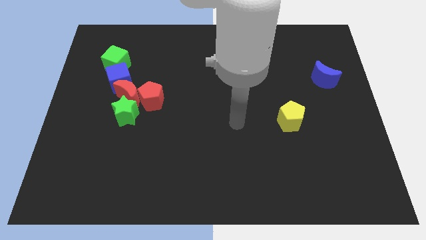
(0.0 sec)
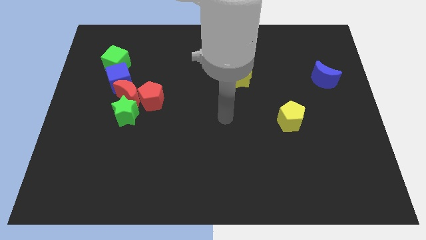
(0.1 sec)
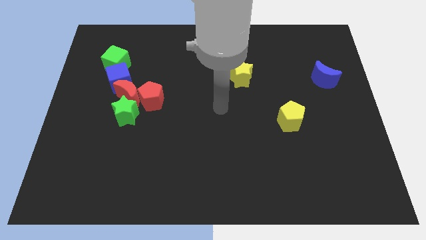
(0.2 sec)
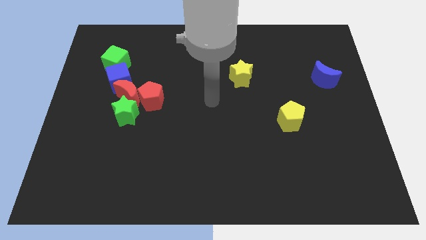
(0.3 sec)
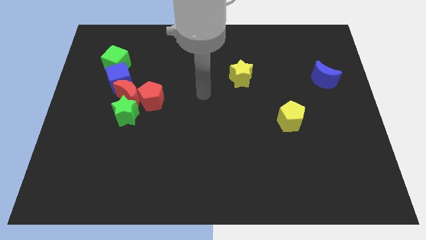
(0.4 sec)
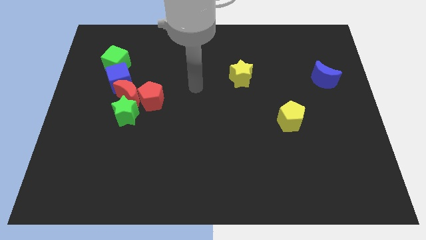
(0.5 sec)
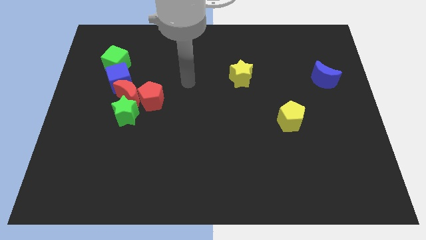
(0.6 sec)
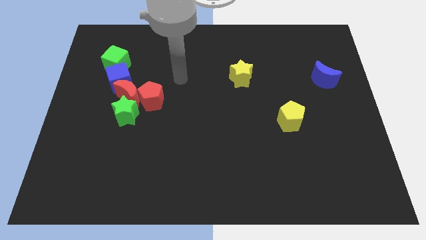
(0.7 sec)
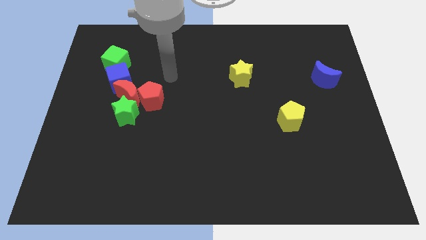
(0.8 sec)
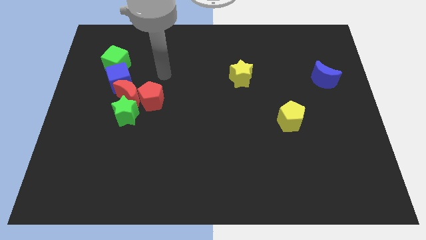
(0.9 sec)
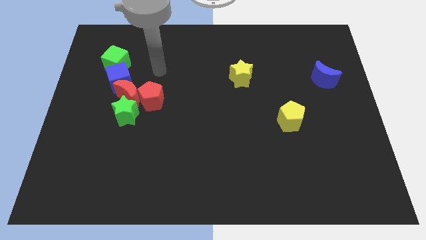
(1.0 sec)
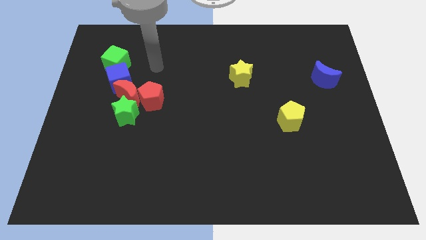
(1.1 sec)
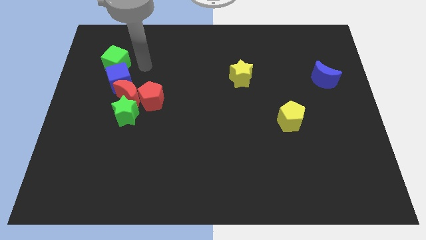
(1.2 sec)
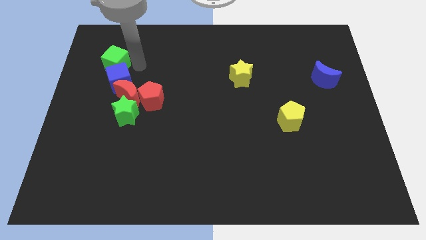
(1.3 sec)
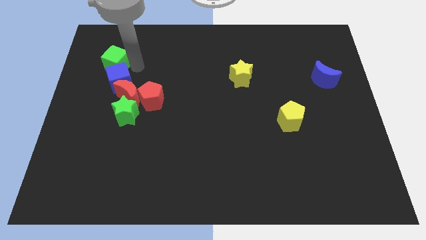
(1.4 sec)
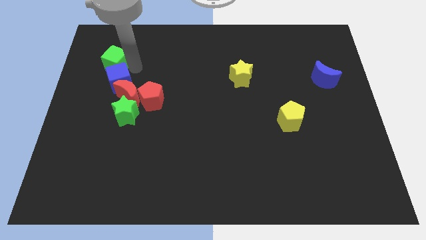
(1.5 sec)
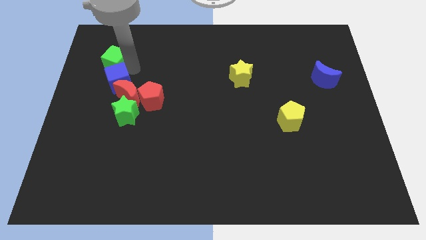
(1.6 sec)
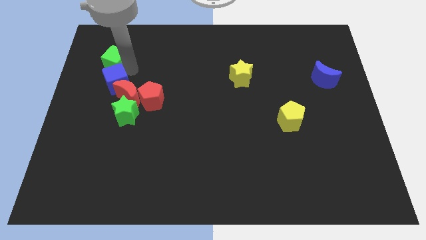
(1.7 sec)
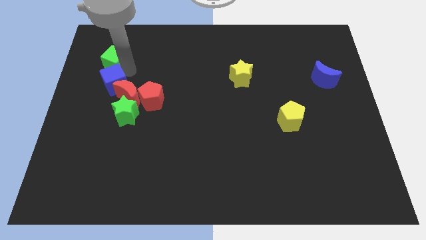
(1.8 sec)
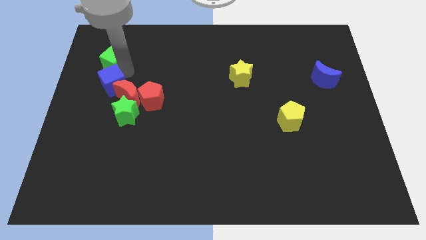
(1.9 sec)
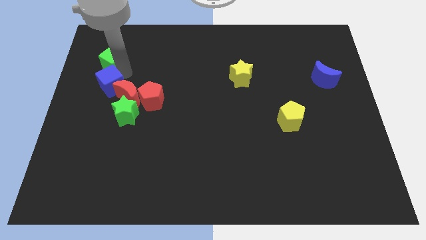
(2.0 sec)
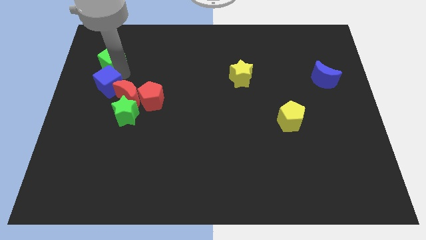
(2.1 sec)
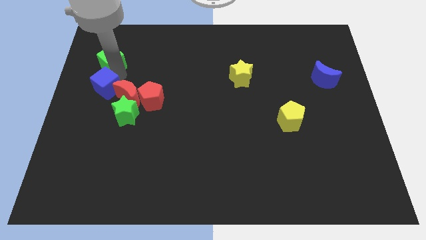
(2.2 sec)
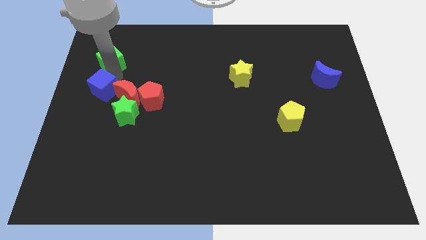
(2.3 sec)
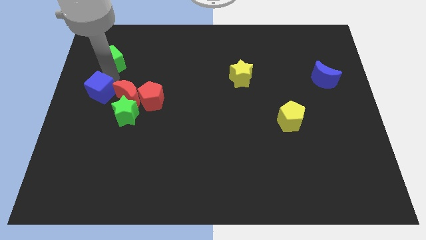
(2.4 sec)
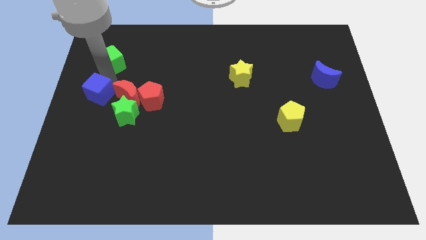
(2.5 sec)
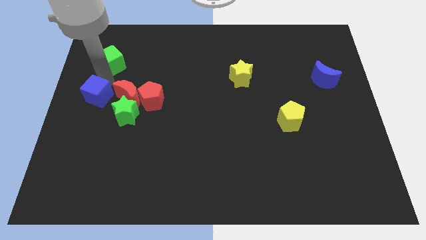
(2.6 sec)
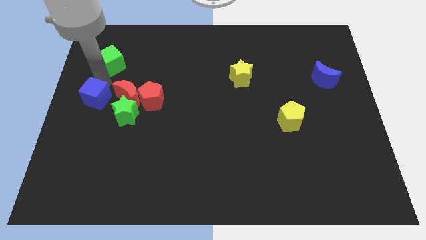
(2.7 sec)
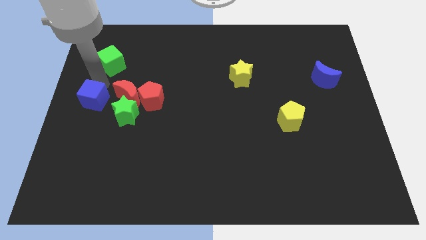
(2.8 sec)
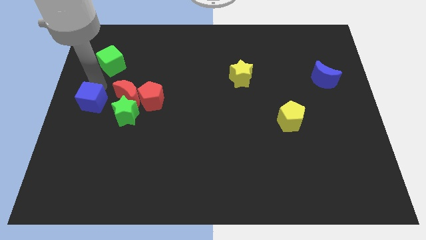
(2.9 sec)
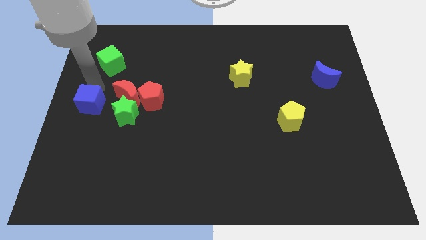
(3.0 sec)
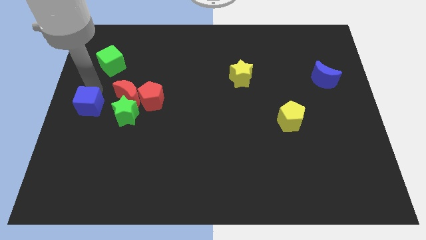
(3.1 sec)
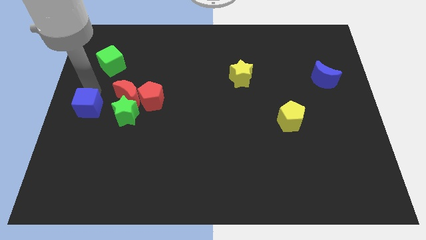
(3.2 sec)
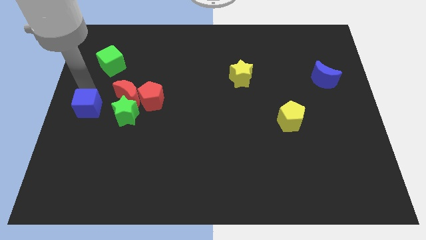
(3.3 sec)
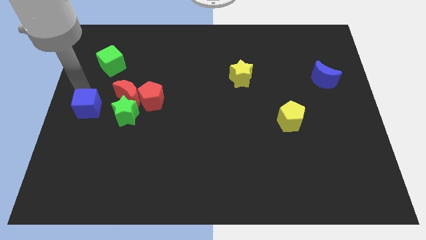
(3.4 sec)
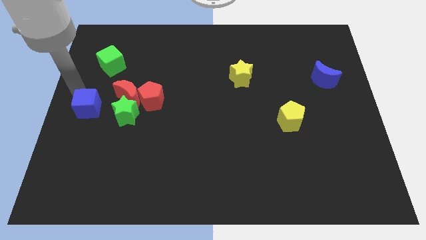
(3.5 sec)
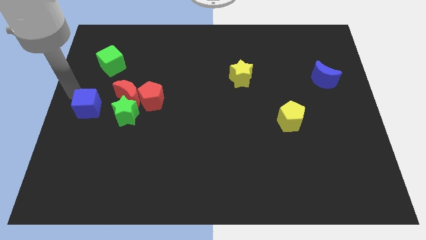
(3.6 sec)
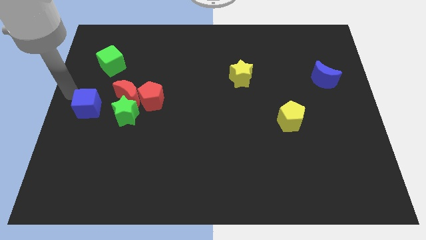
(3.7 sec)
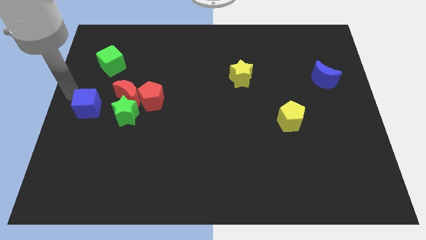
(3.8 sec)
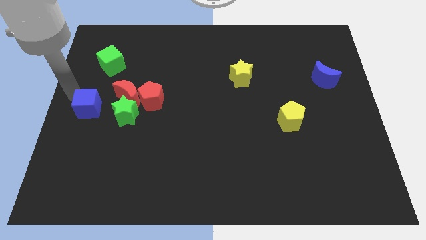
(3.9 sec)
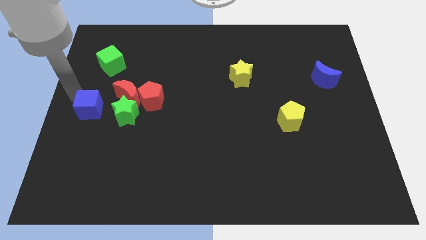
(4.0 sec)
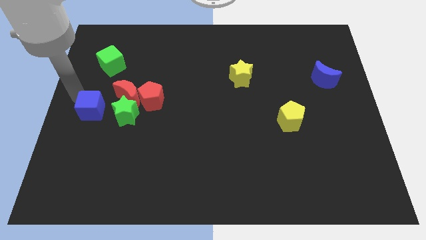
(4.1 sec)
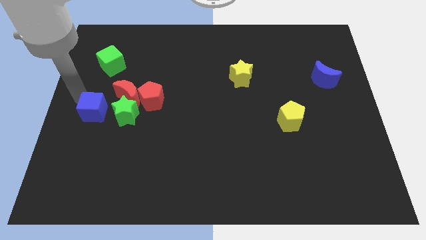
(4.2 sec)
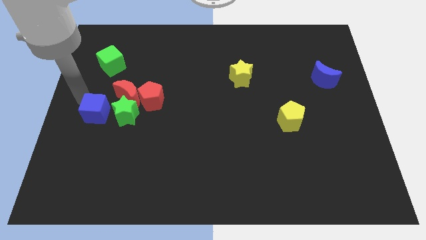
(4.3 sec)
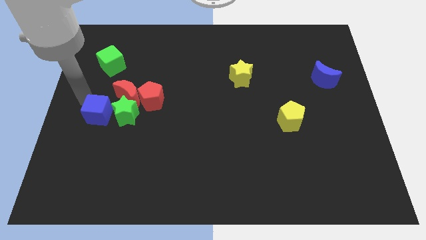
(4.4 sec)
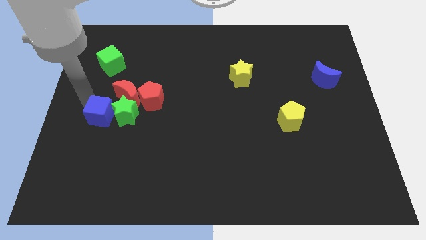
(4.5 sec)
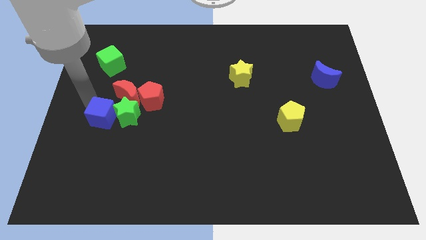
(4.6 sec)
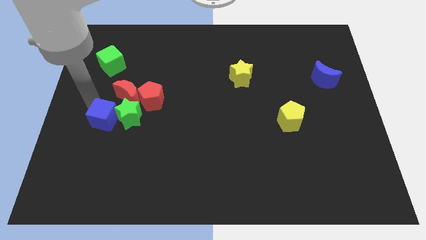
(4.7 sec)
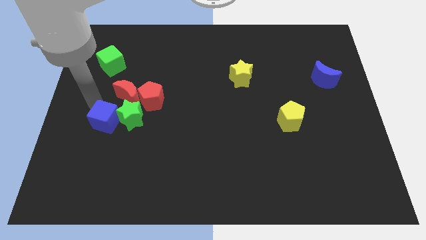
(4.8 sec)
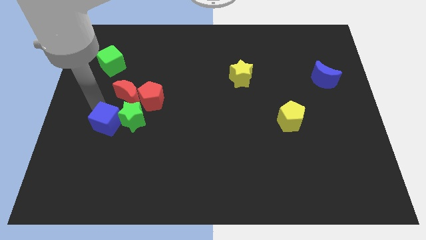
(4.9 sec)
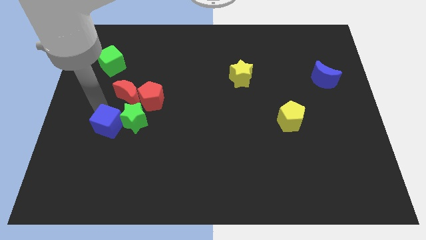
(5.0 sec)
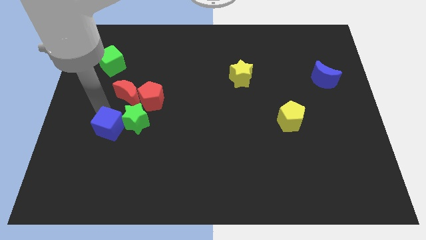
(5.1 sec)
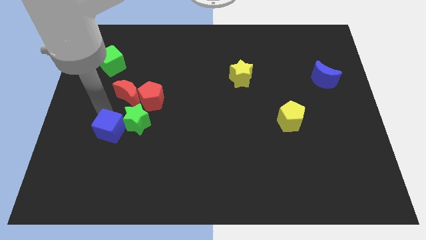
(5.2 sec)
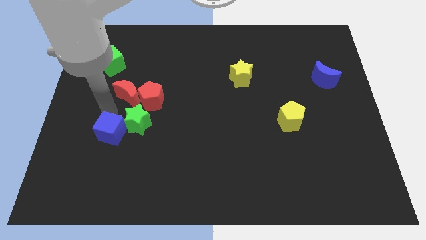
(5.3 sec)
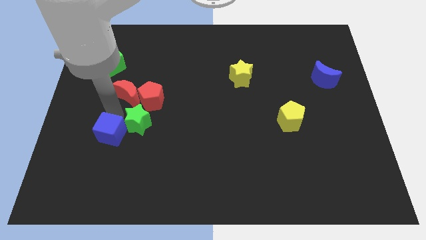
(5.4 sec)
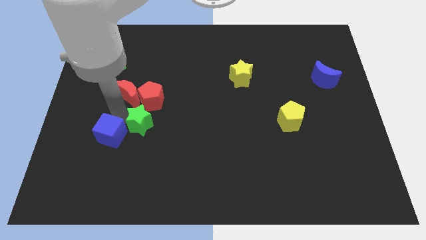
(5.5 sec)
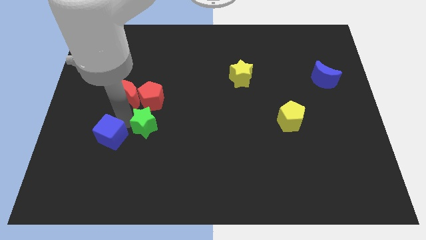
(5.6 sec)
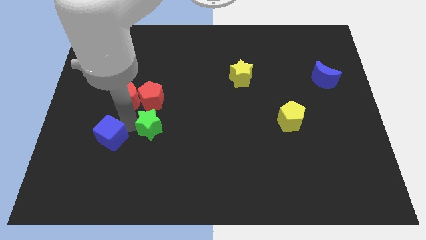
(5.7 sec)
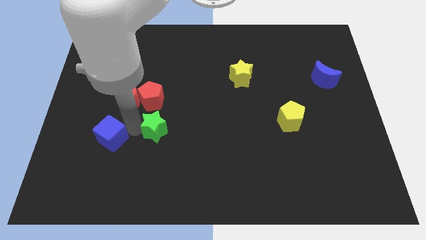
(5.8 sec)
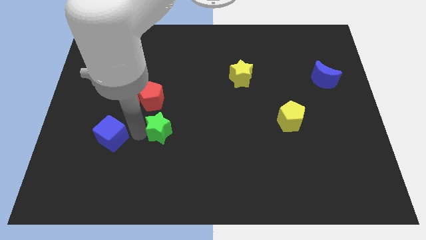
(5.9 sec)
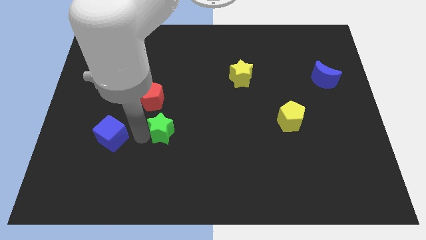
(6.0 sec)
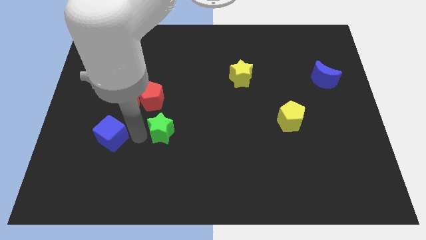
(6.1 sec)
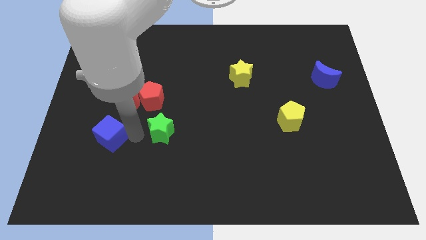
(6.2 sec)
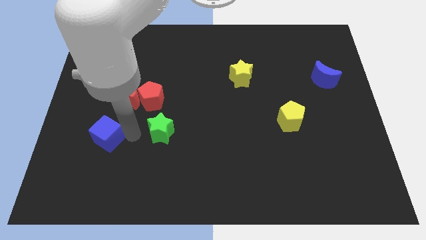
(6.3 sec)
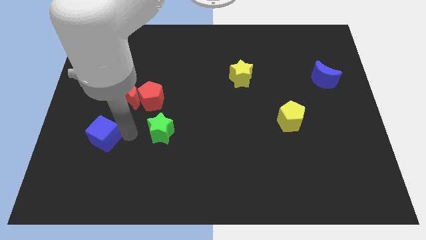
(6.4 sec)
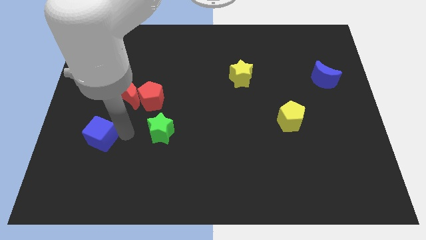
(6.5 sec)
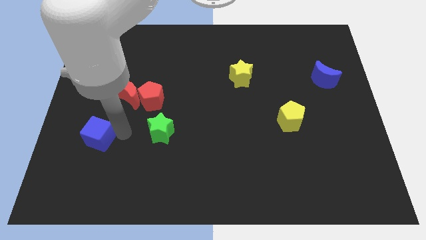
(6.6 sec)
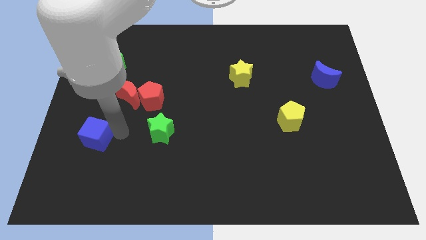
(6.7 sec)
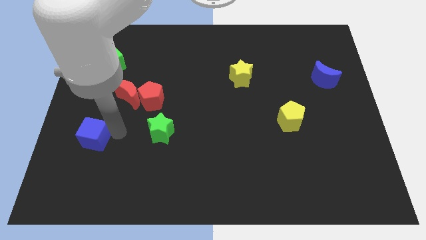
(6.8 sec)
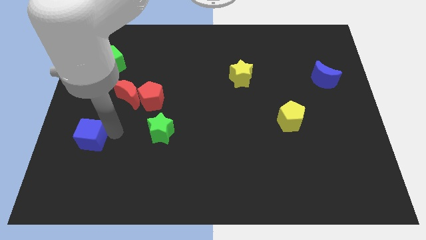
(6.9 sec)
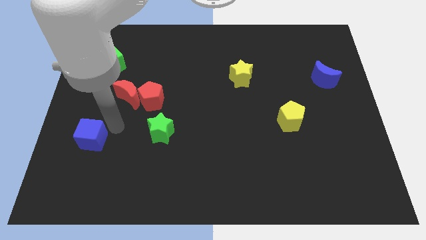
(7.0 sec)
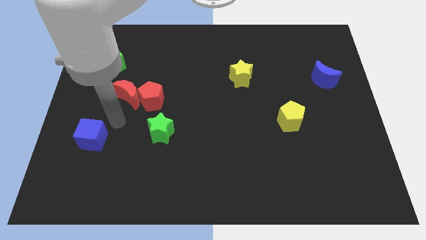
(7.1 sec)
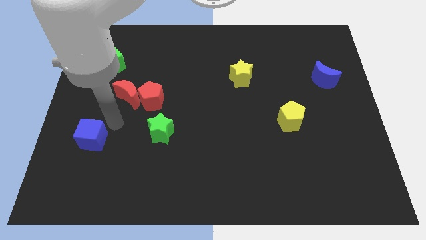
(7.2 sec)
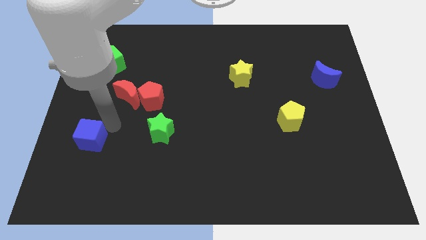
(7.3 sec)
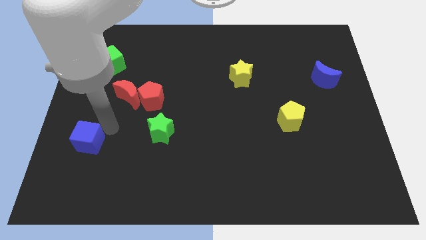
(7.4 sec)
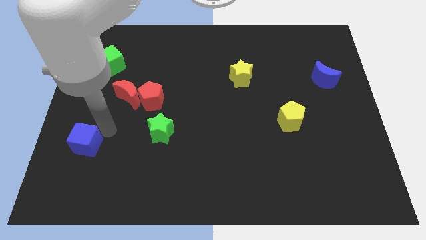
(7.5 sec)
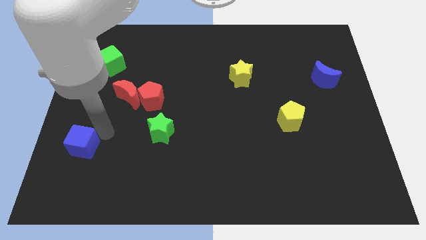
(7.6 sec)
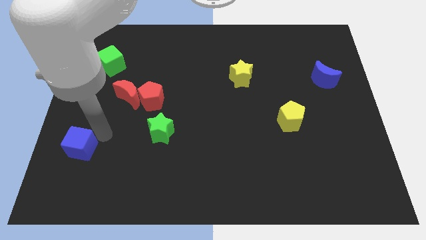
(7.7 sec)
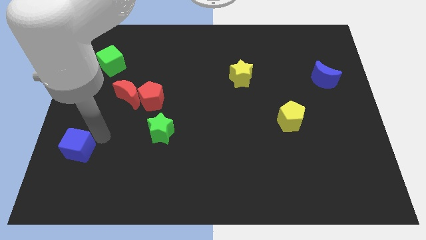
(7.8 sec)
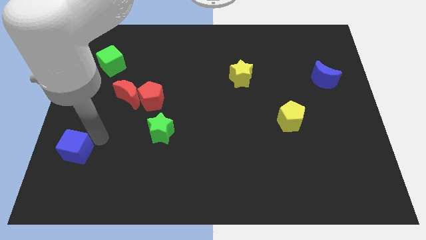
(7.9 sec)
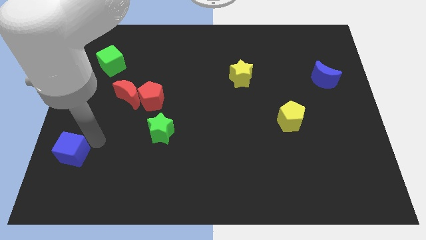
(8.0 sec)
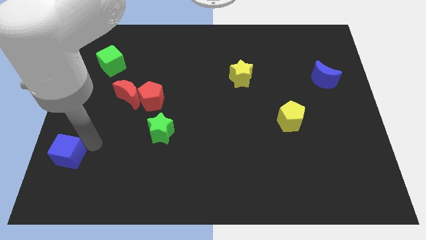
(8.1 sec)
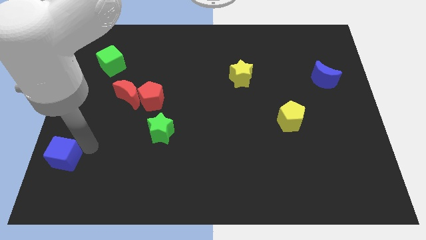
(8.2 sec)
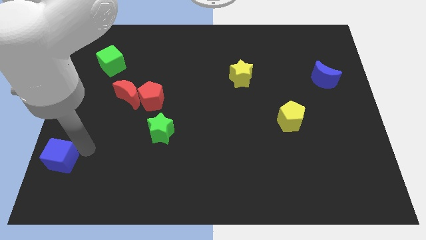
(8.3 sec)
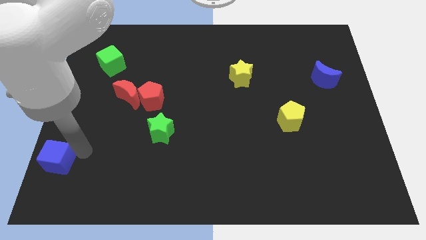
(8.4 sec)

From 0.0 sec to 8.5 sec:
slide the blue cube to the bottom left corner
